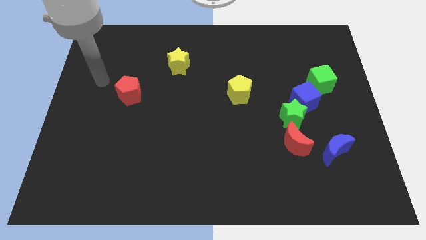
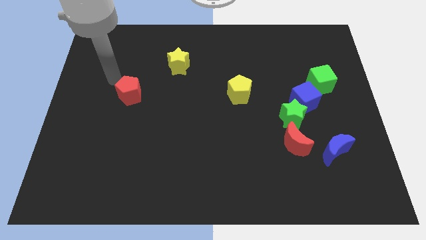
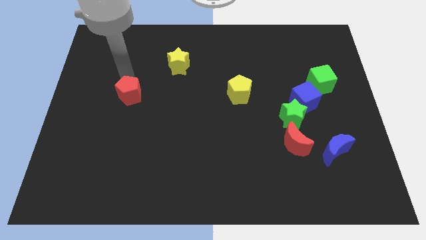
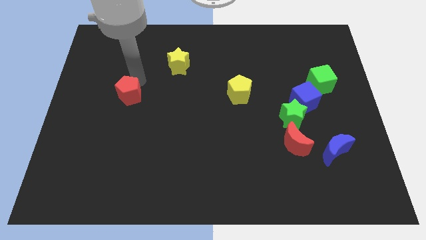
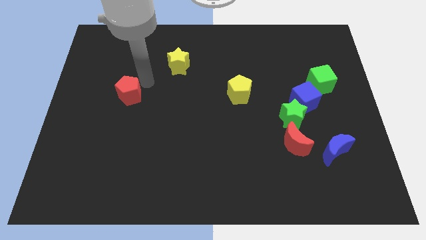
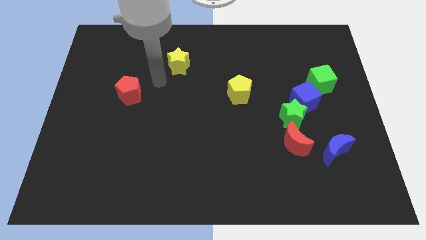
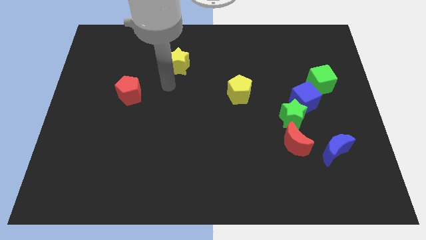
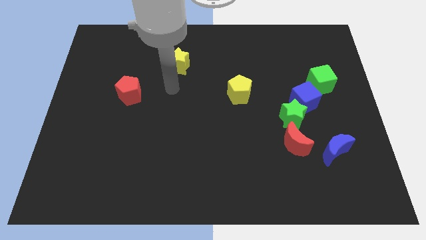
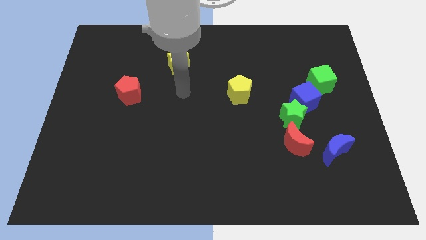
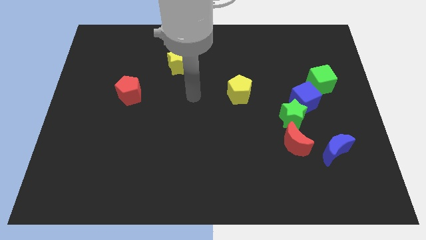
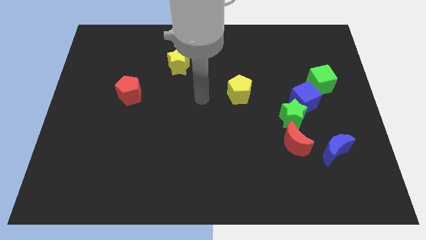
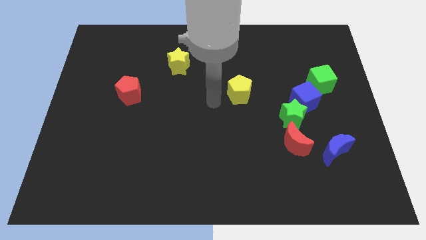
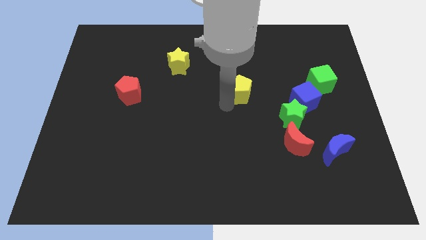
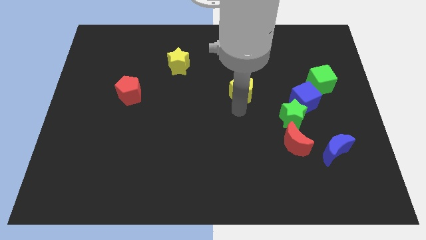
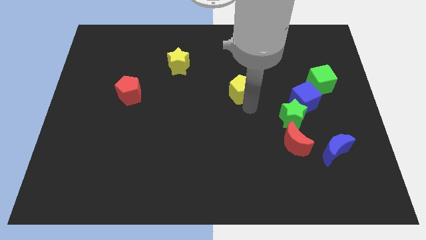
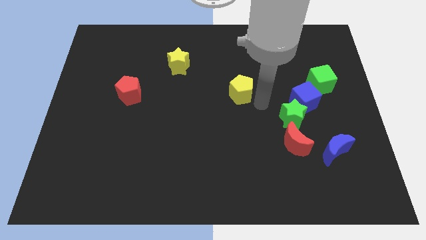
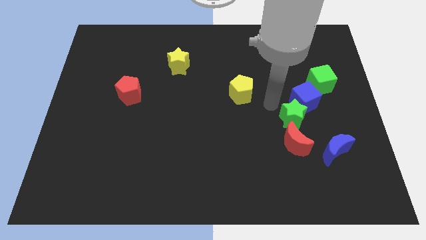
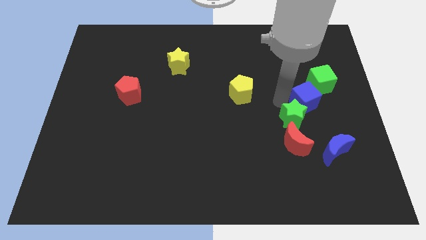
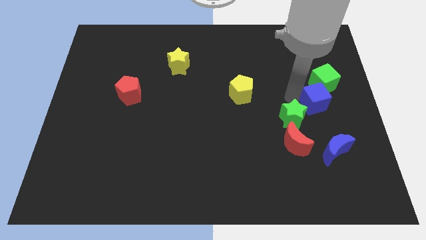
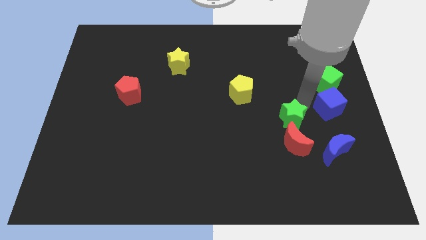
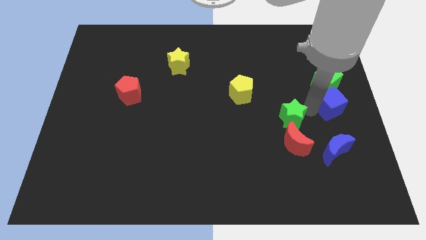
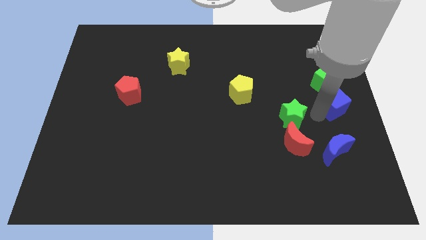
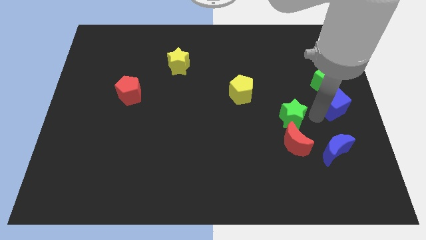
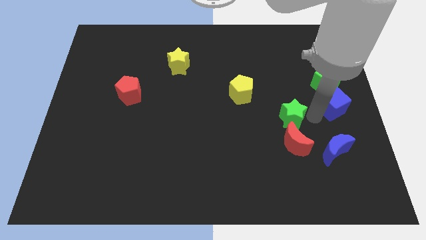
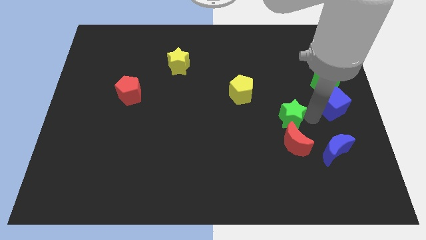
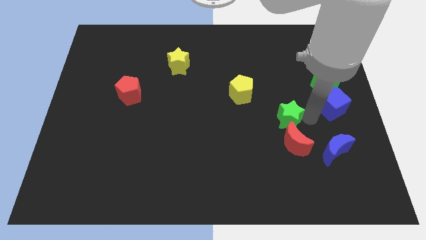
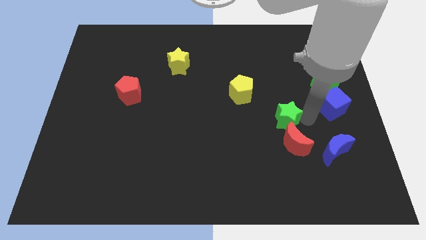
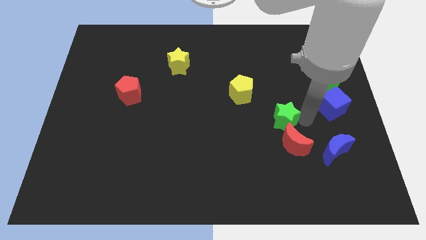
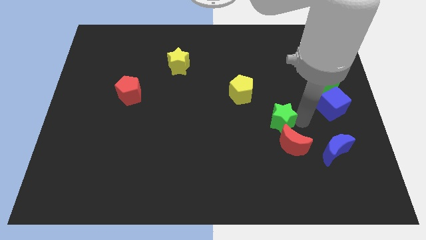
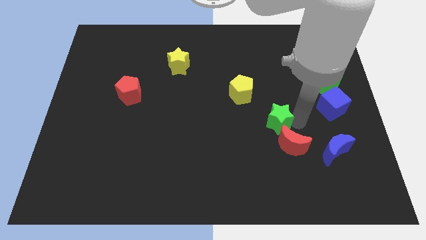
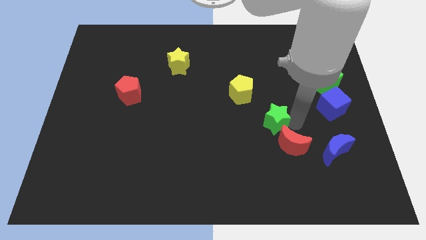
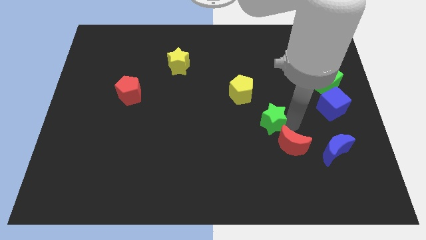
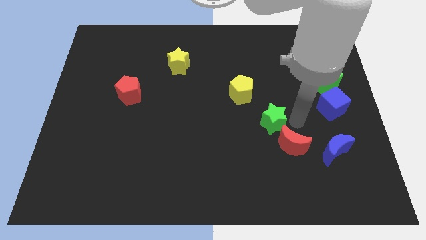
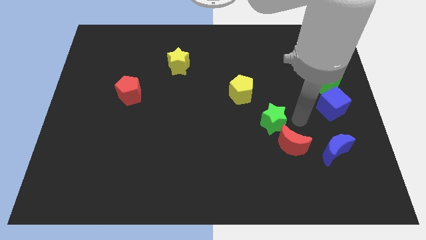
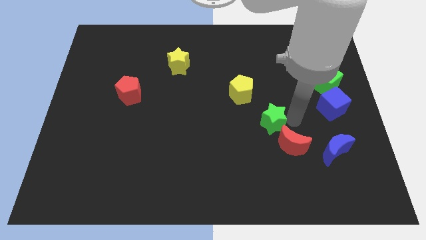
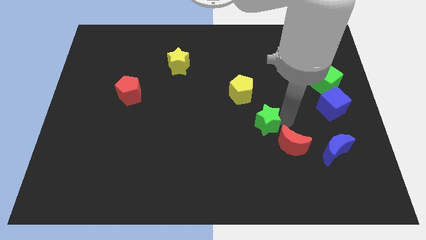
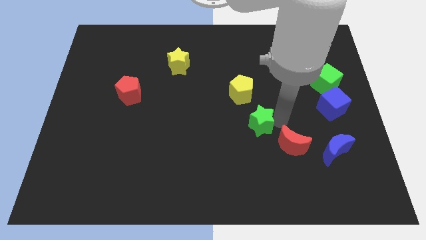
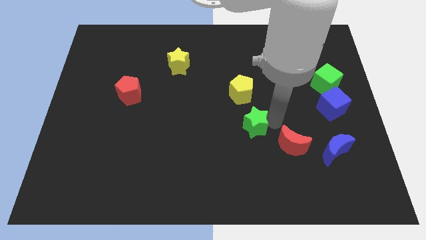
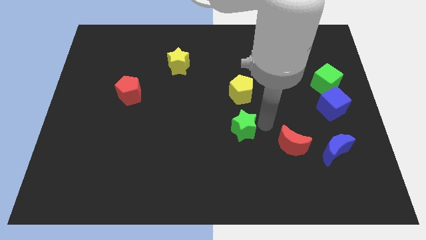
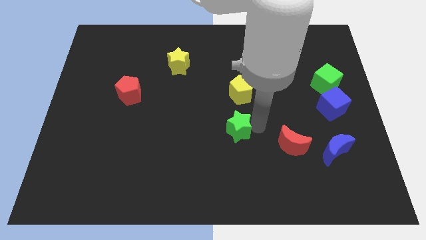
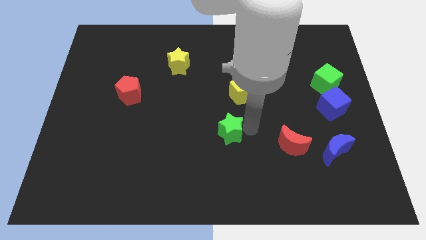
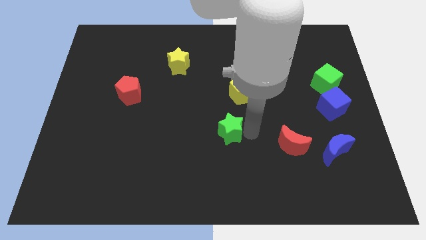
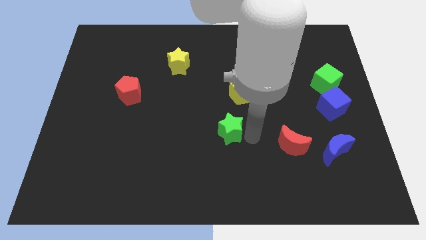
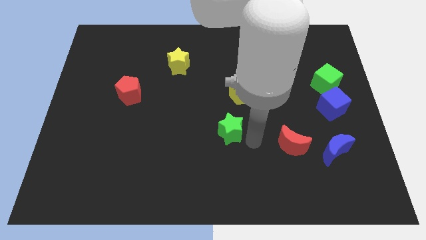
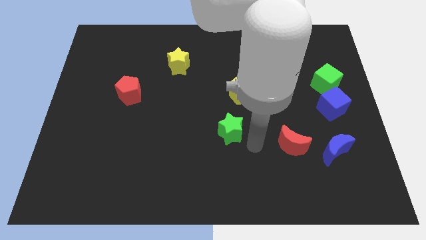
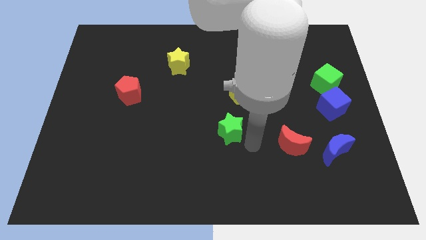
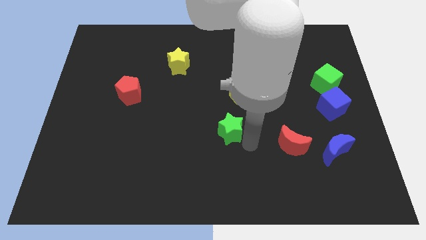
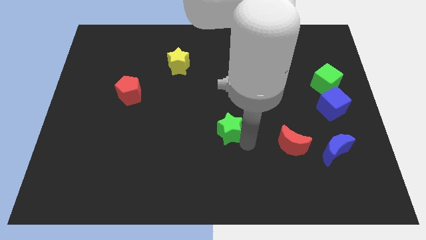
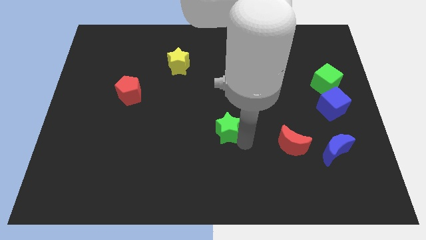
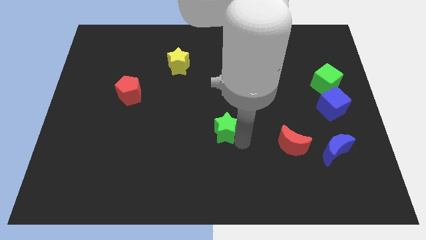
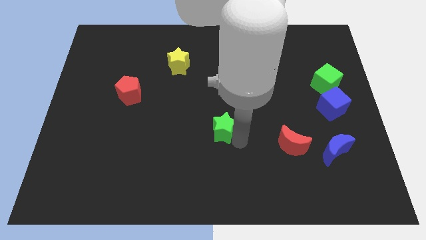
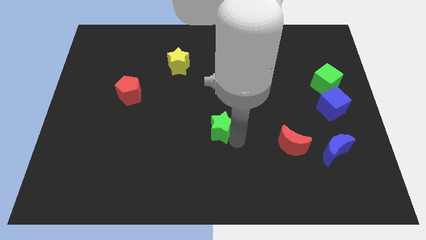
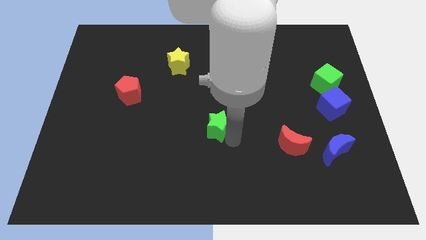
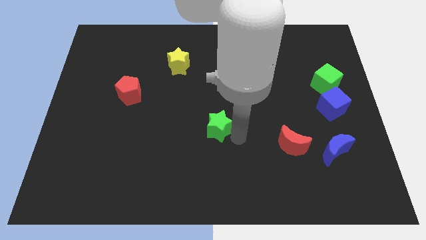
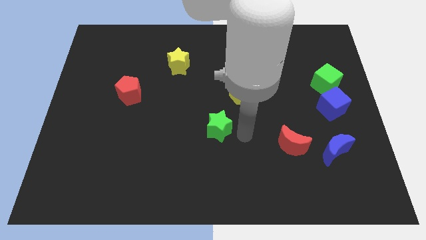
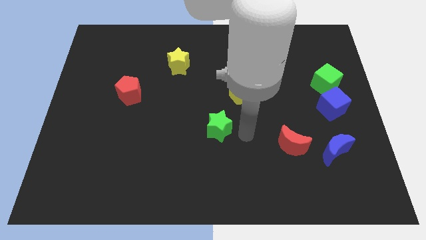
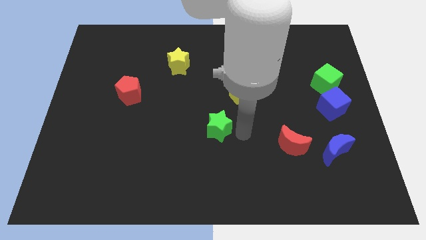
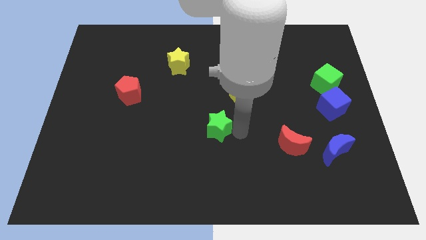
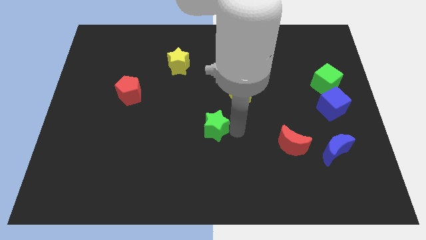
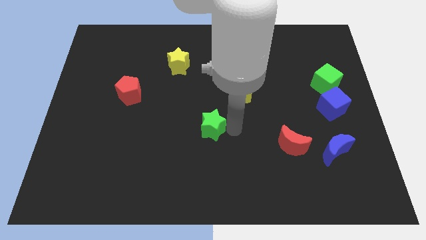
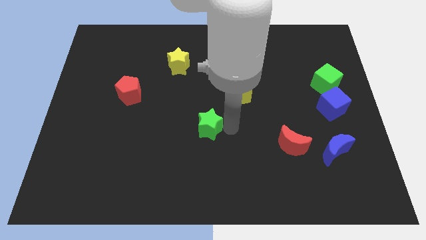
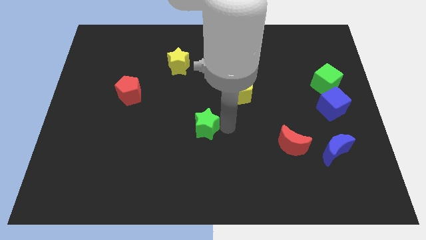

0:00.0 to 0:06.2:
push the green star to the left

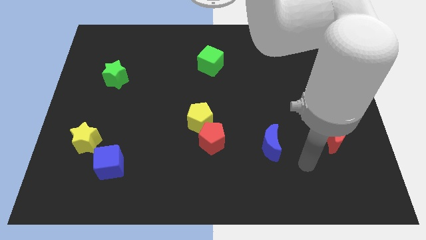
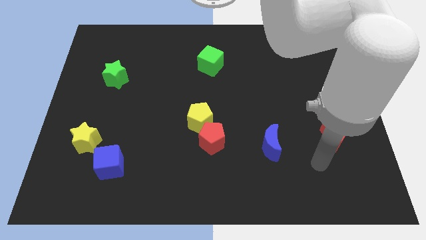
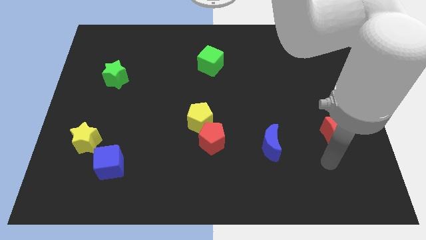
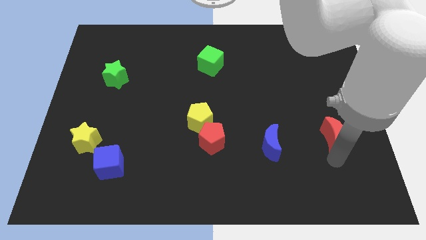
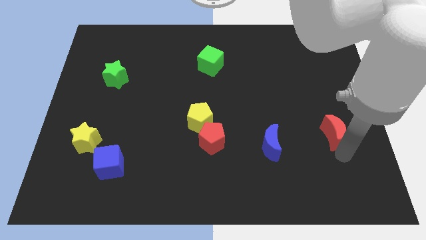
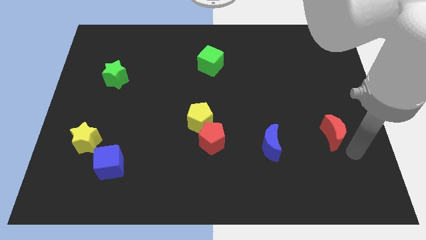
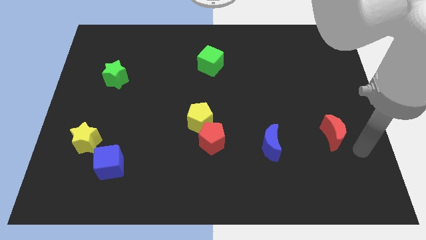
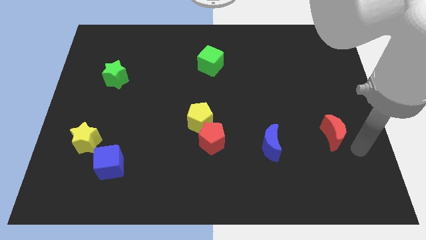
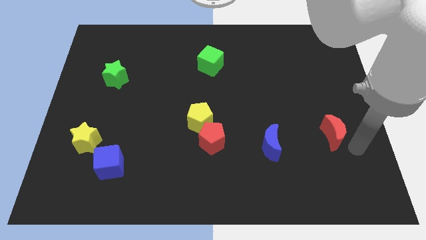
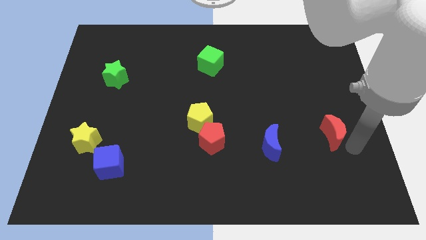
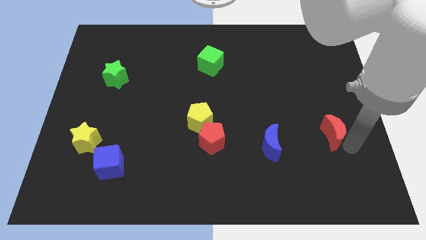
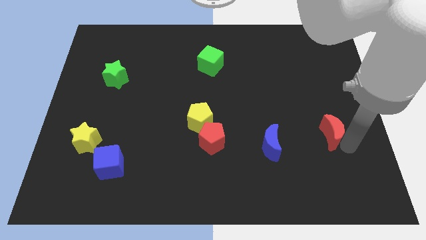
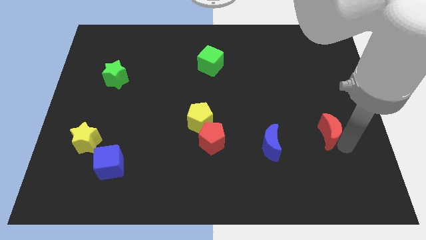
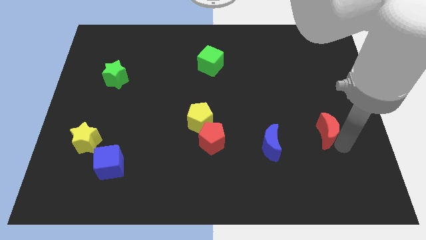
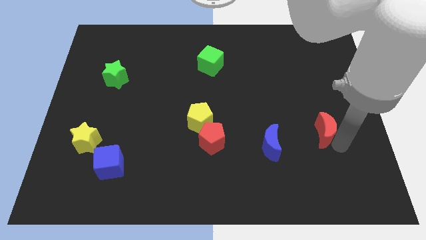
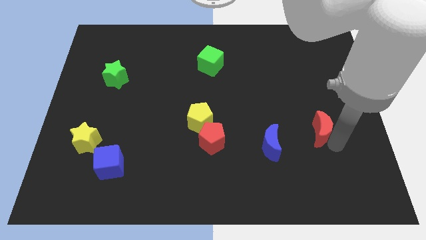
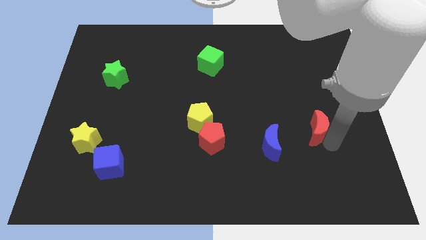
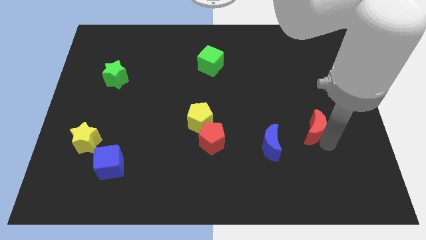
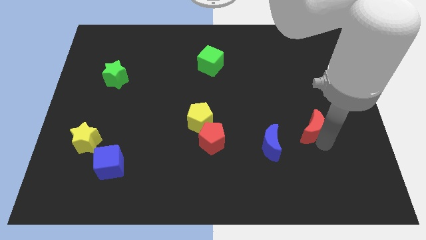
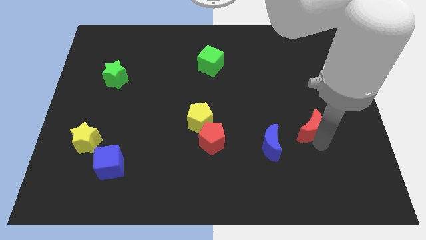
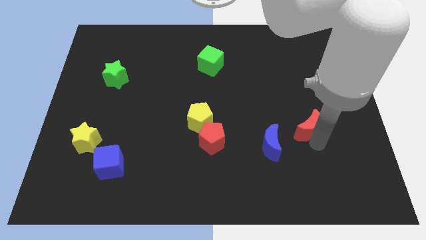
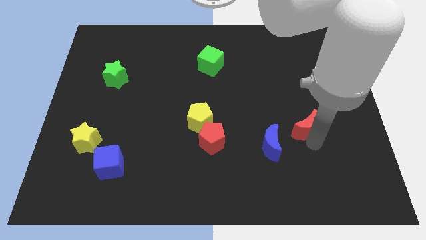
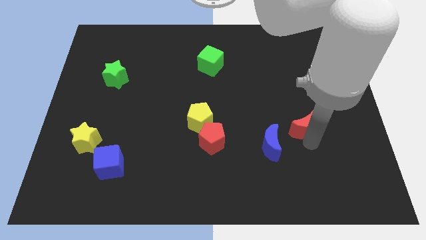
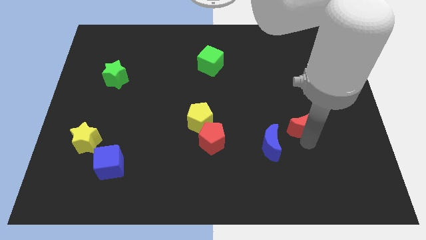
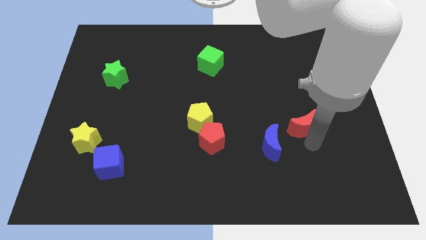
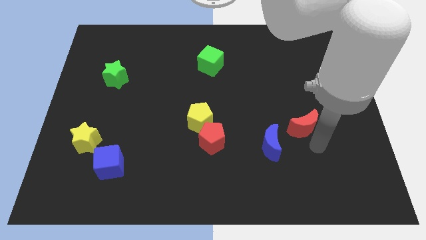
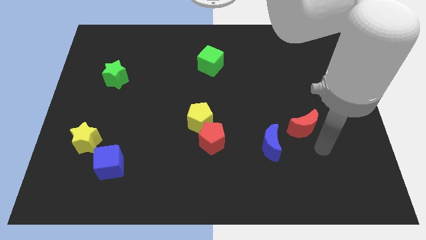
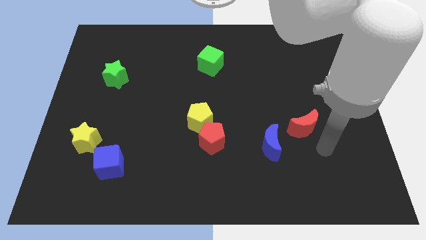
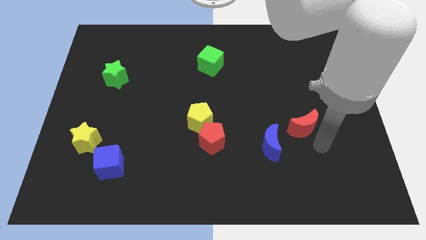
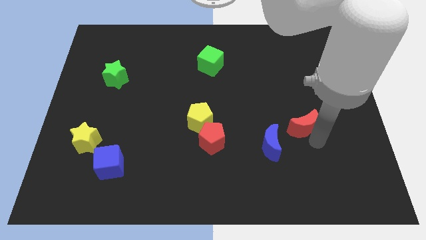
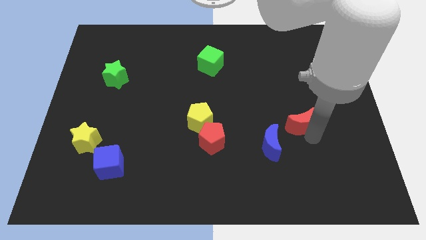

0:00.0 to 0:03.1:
slightly push the red moon diagonally up and left
